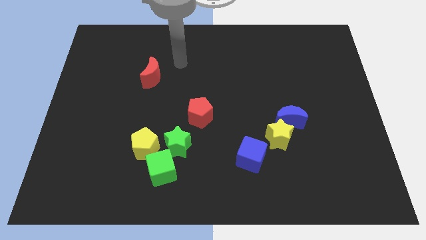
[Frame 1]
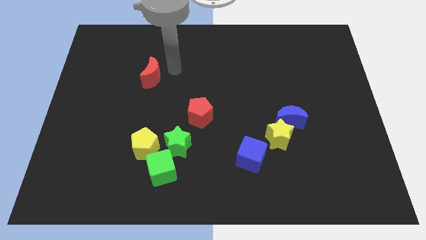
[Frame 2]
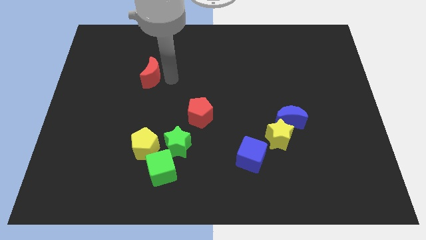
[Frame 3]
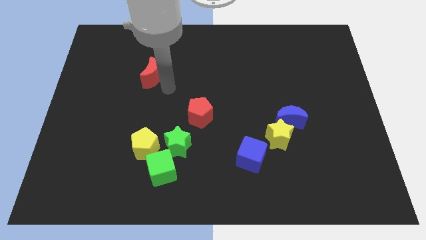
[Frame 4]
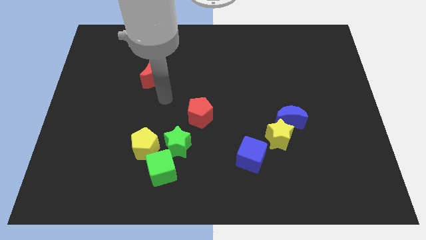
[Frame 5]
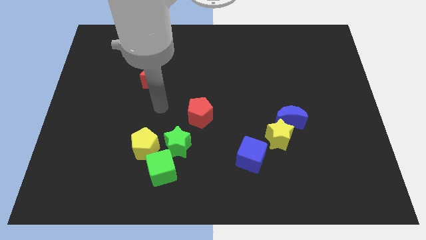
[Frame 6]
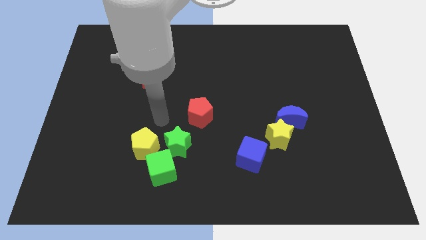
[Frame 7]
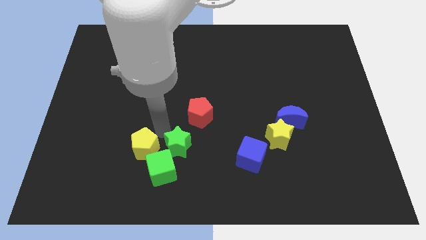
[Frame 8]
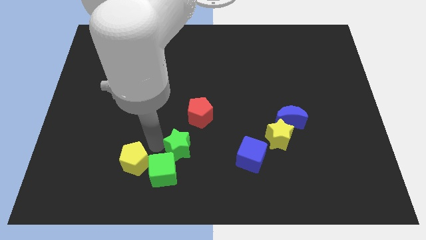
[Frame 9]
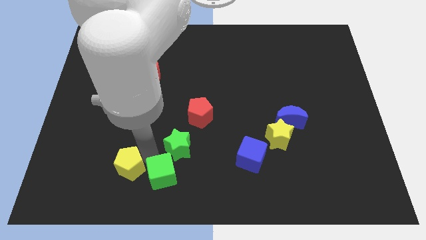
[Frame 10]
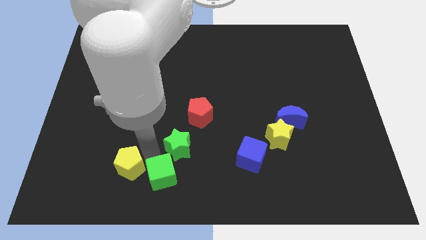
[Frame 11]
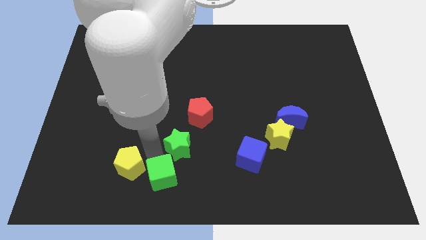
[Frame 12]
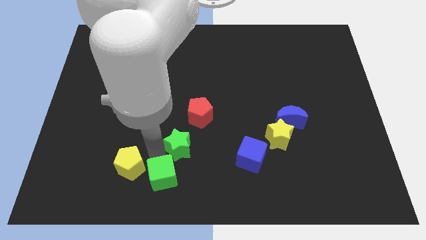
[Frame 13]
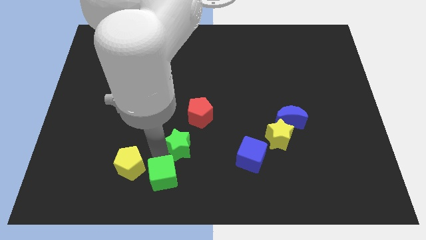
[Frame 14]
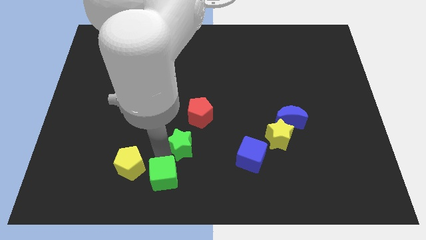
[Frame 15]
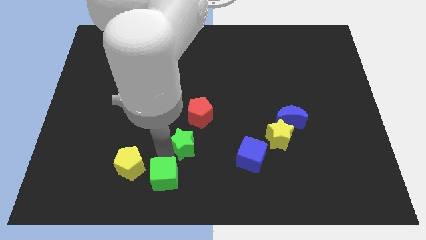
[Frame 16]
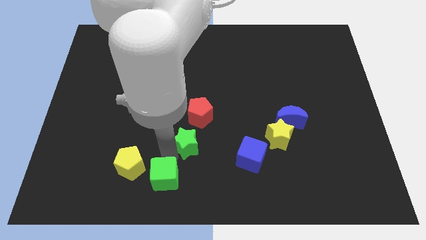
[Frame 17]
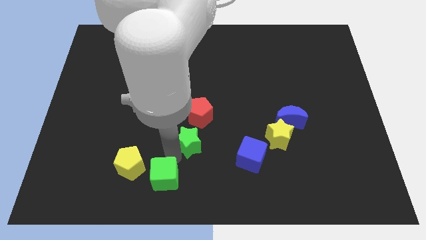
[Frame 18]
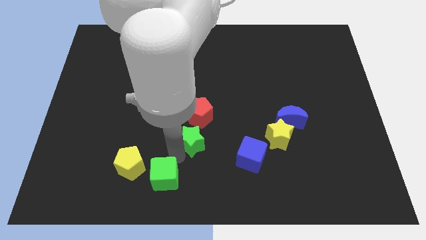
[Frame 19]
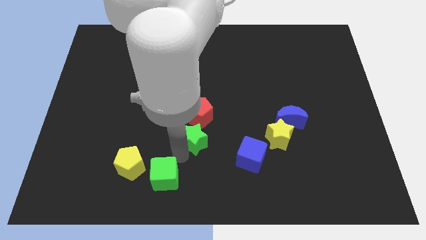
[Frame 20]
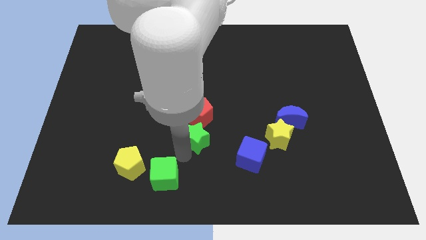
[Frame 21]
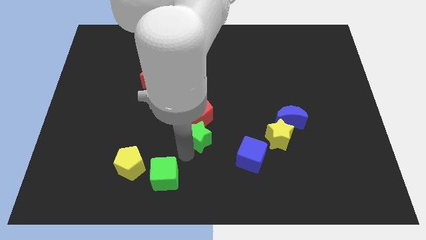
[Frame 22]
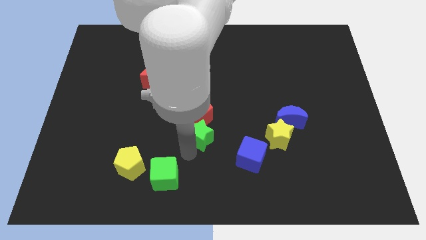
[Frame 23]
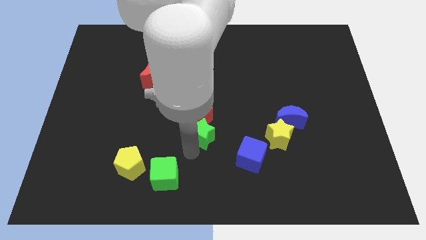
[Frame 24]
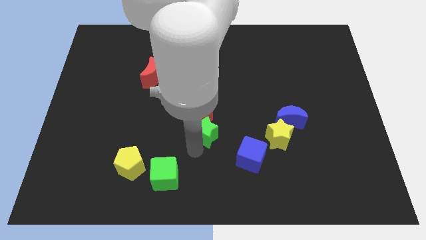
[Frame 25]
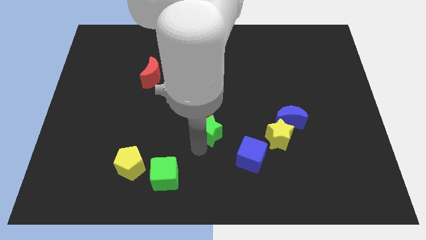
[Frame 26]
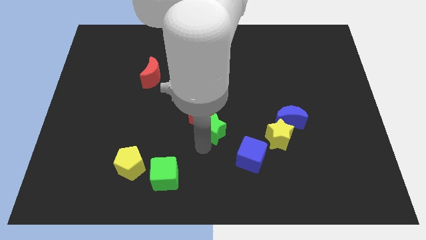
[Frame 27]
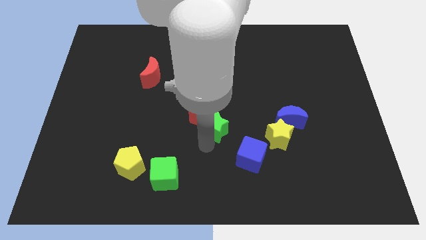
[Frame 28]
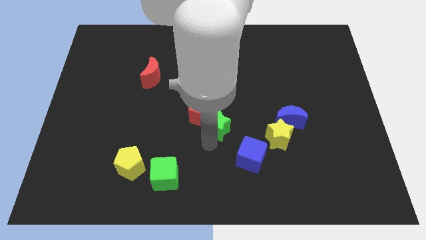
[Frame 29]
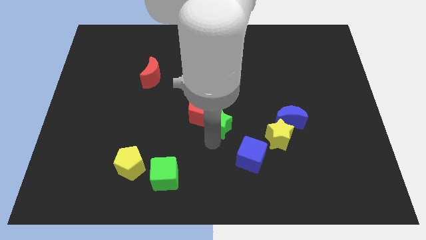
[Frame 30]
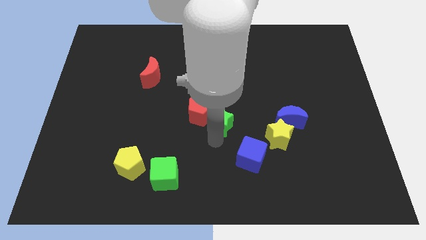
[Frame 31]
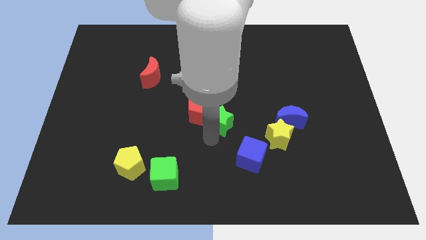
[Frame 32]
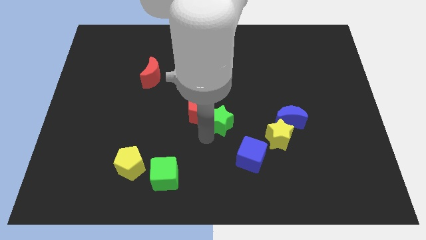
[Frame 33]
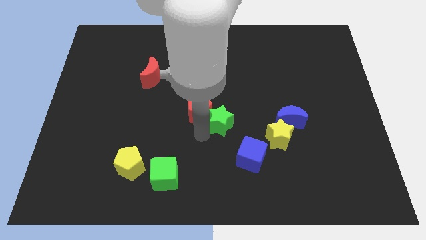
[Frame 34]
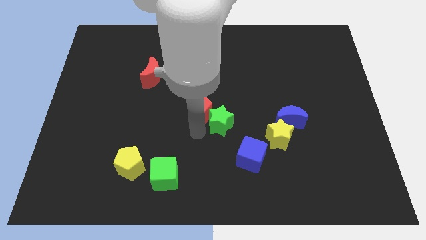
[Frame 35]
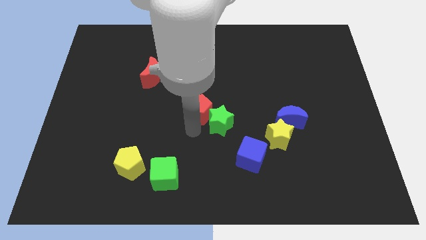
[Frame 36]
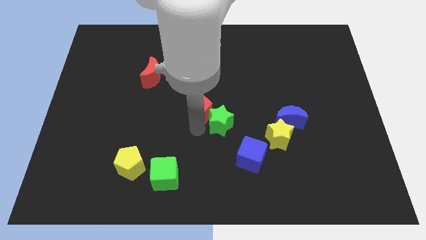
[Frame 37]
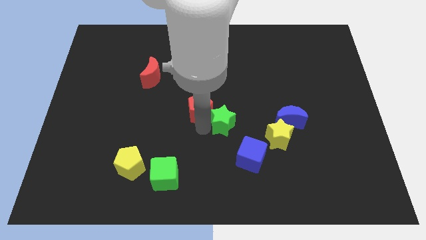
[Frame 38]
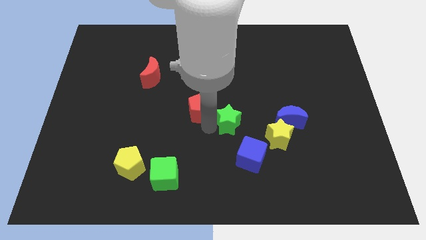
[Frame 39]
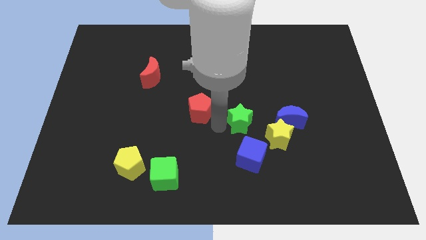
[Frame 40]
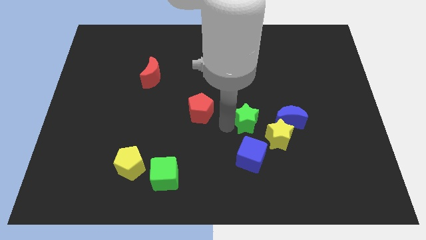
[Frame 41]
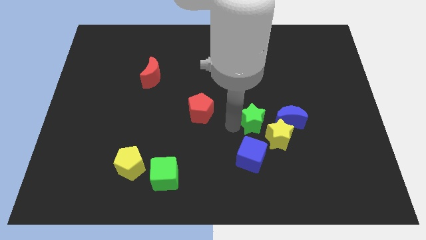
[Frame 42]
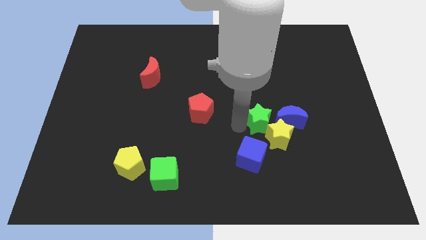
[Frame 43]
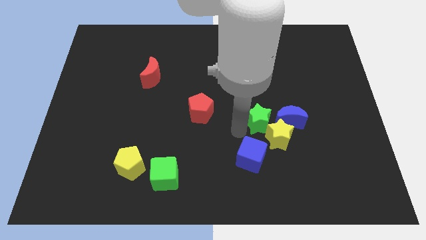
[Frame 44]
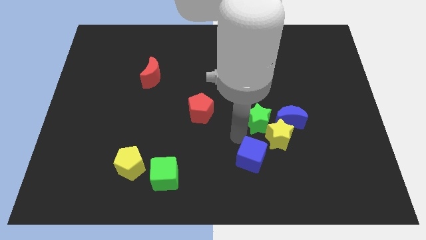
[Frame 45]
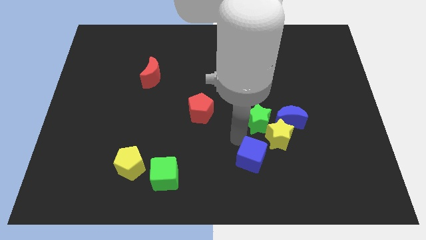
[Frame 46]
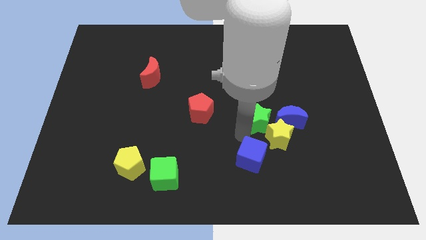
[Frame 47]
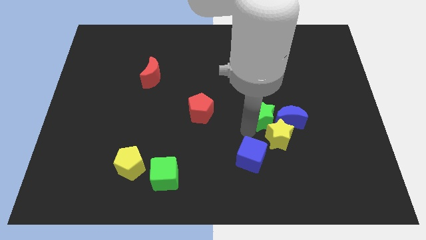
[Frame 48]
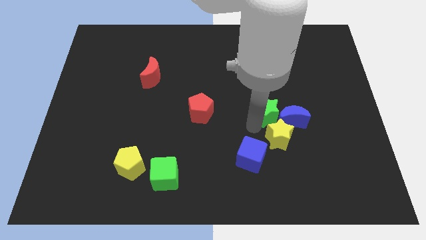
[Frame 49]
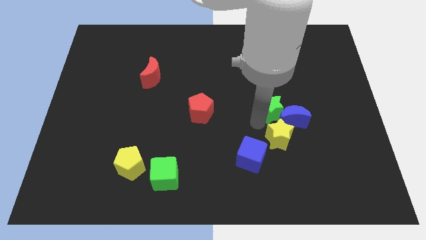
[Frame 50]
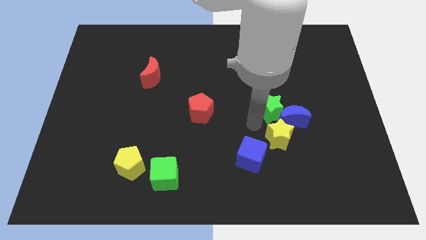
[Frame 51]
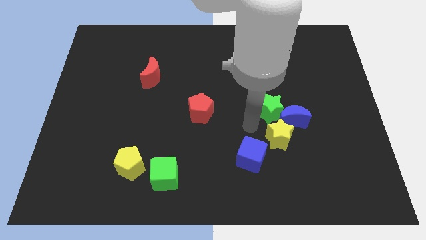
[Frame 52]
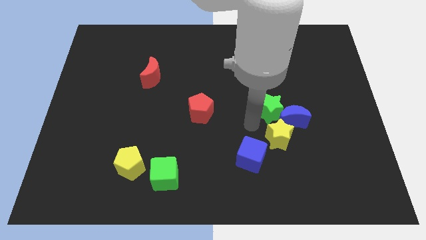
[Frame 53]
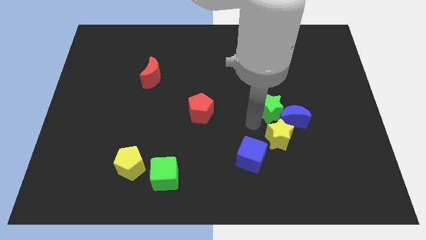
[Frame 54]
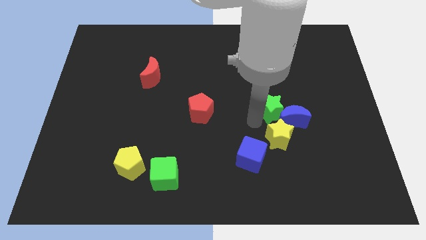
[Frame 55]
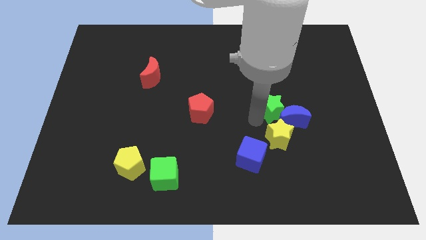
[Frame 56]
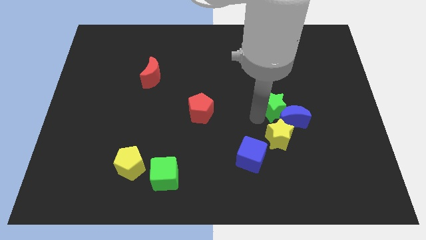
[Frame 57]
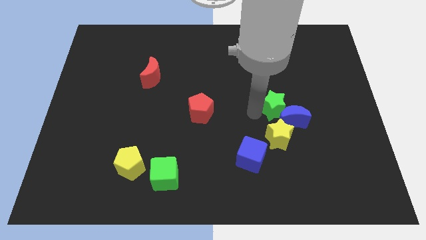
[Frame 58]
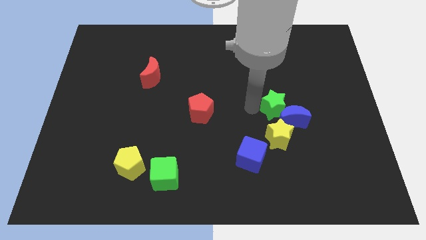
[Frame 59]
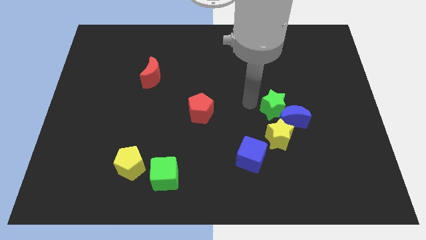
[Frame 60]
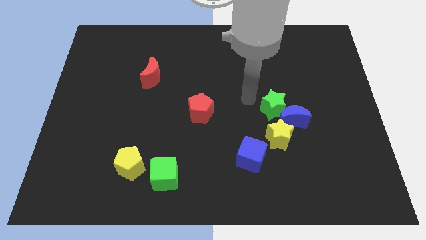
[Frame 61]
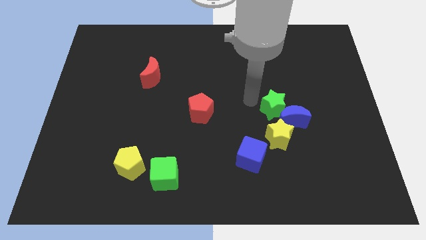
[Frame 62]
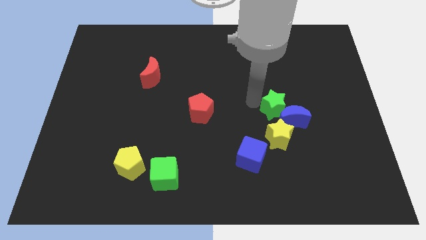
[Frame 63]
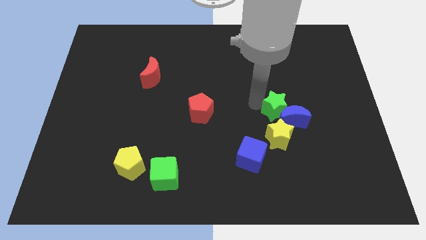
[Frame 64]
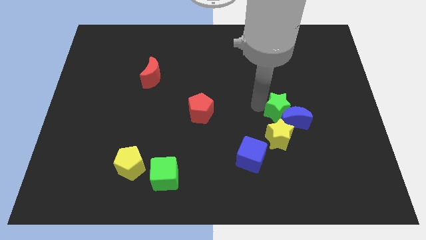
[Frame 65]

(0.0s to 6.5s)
push the green star to the top right of the yellow star

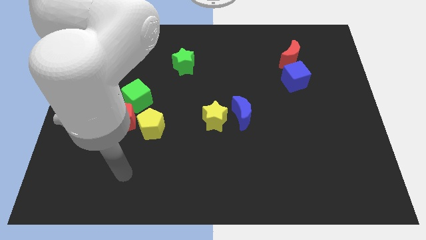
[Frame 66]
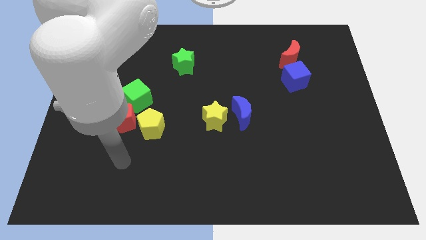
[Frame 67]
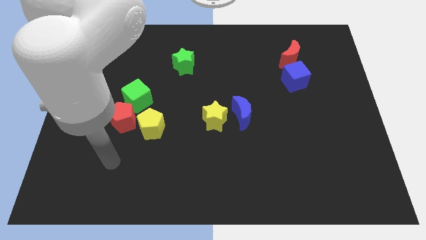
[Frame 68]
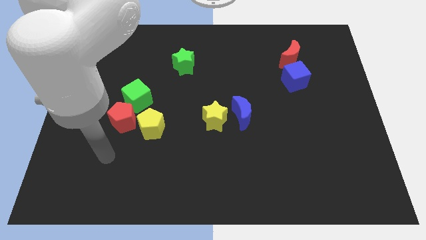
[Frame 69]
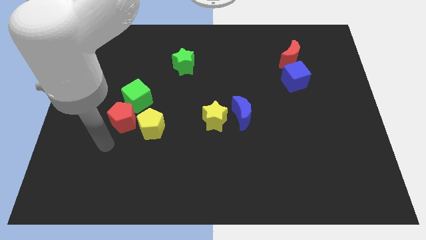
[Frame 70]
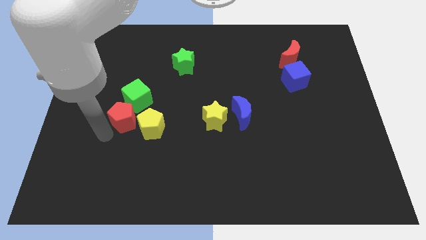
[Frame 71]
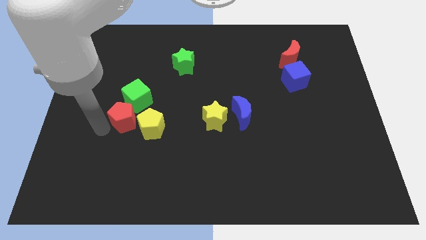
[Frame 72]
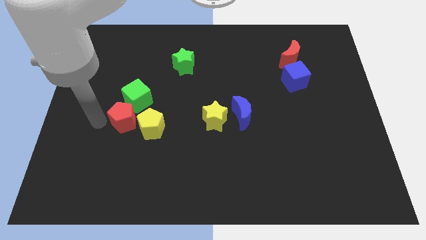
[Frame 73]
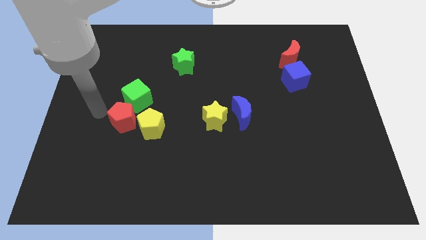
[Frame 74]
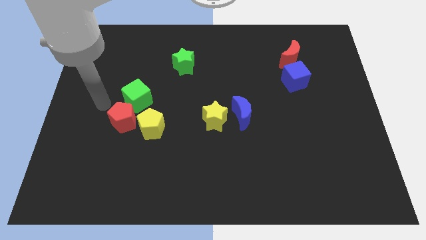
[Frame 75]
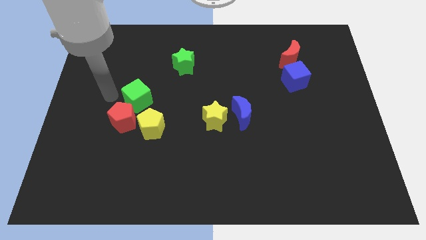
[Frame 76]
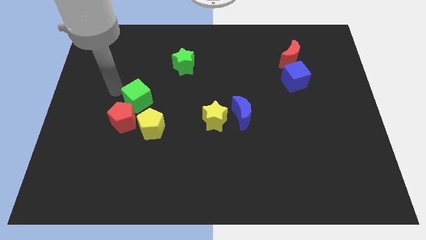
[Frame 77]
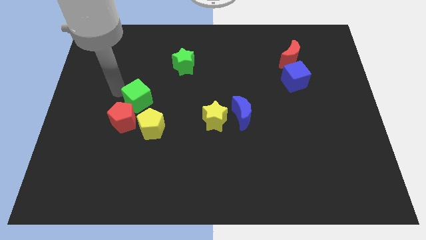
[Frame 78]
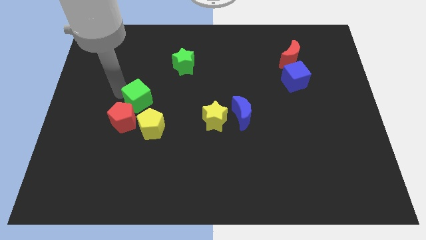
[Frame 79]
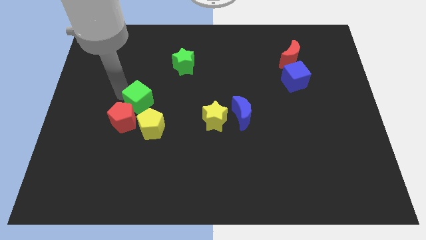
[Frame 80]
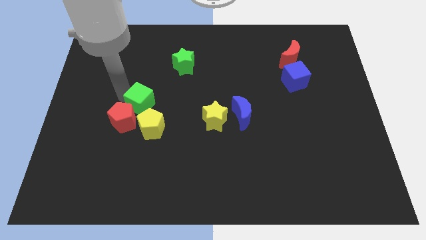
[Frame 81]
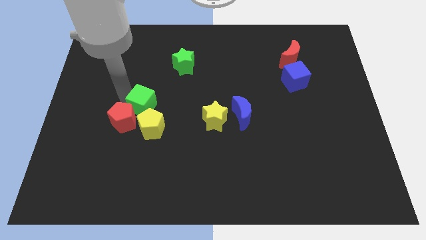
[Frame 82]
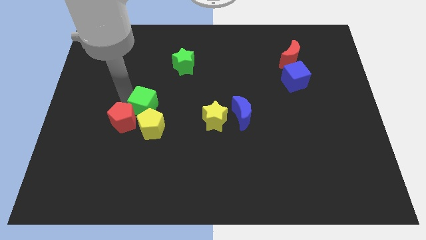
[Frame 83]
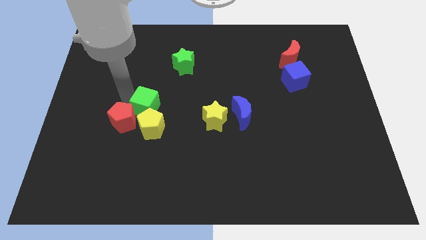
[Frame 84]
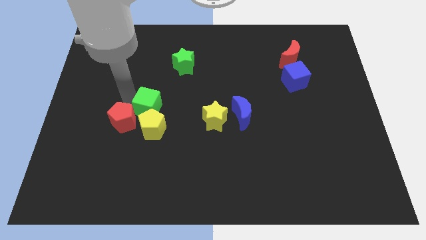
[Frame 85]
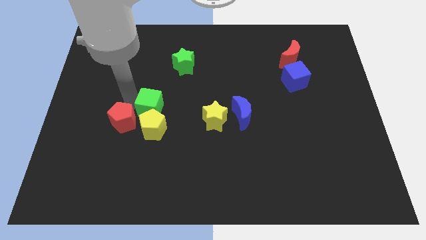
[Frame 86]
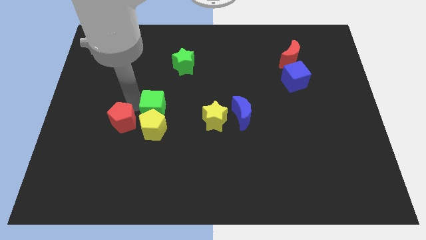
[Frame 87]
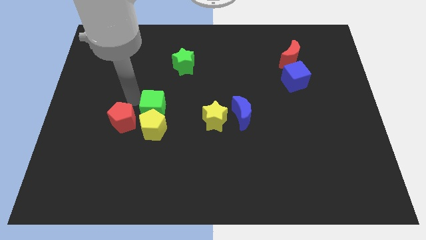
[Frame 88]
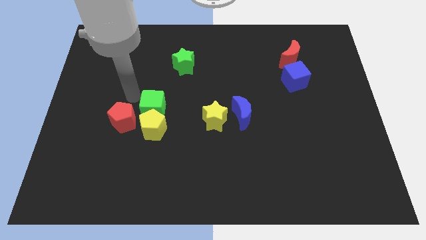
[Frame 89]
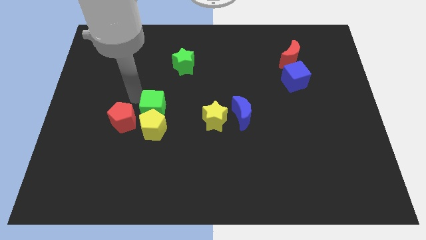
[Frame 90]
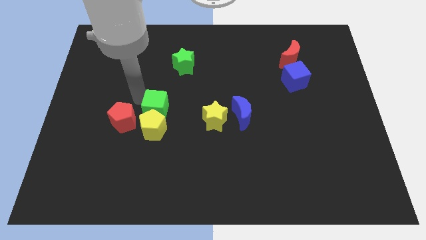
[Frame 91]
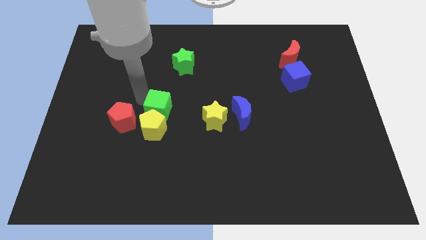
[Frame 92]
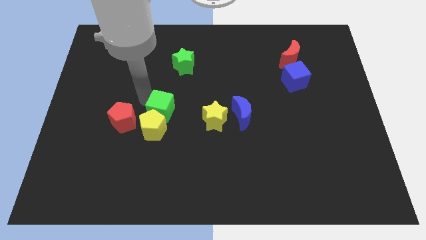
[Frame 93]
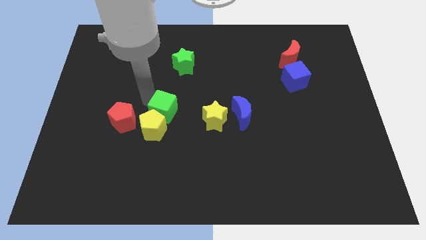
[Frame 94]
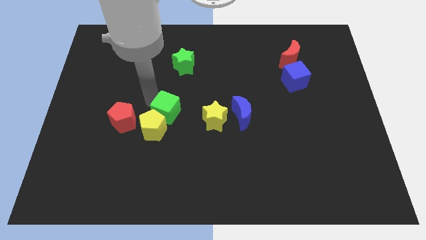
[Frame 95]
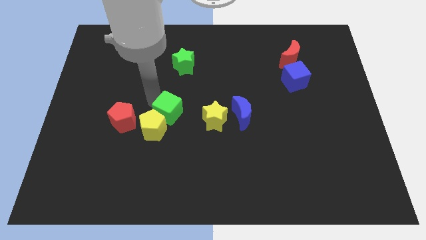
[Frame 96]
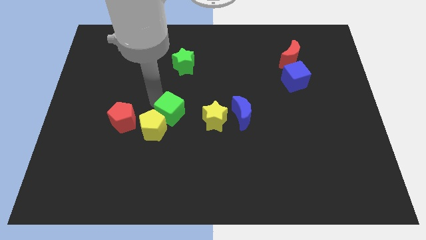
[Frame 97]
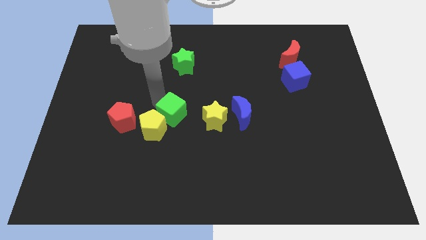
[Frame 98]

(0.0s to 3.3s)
push the green cube just right of the yellow pentagon
